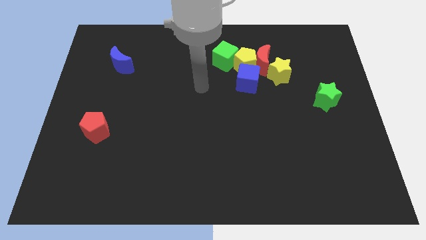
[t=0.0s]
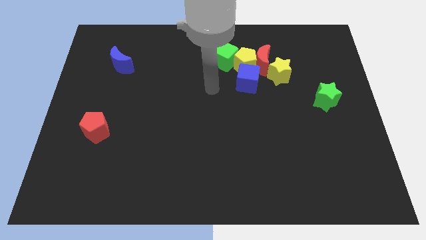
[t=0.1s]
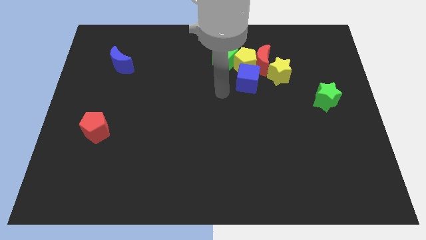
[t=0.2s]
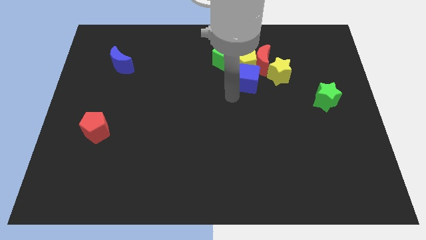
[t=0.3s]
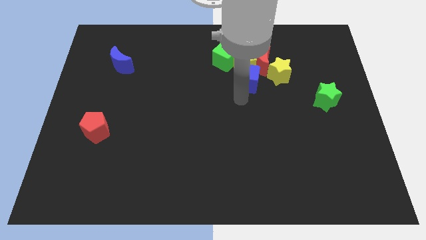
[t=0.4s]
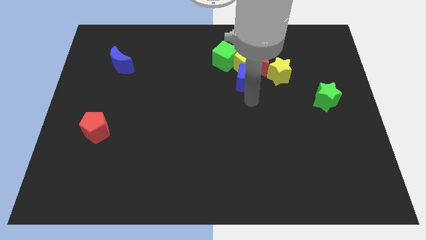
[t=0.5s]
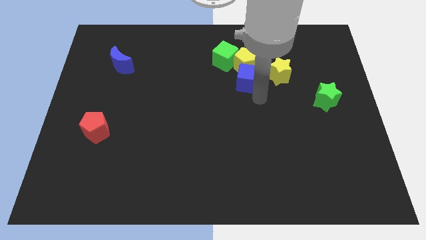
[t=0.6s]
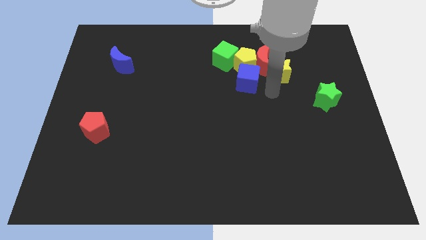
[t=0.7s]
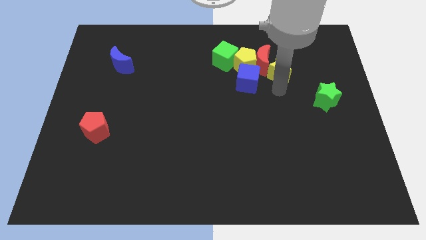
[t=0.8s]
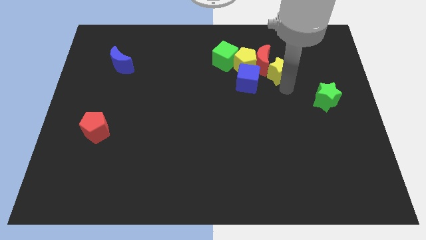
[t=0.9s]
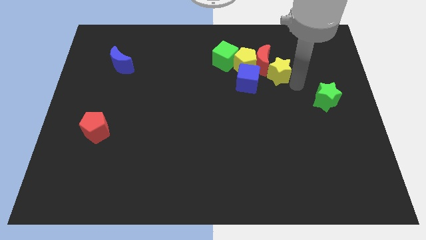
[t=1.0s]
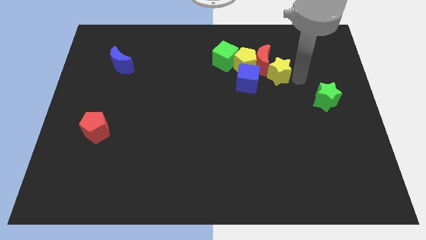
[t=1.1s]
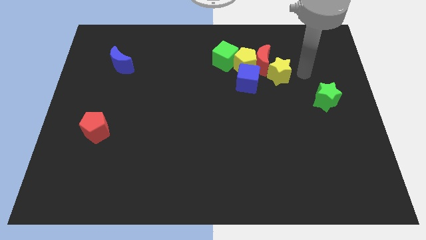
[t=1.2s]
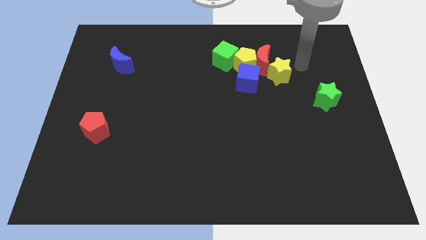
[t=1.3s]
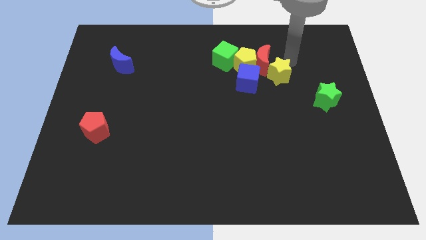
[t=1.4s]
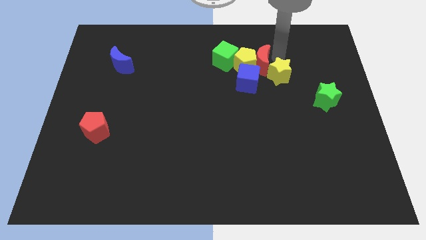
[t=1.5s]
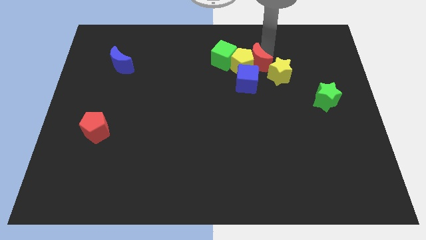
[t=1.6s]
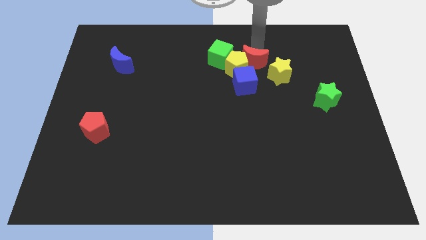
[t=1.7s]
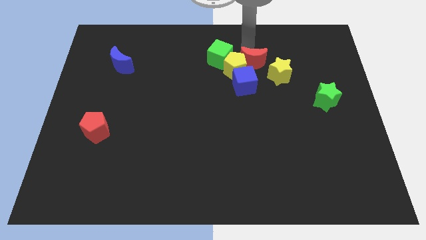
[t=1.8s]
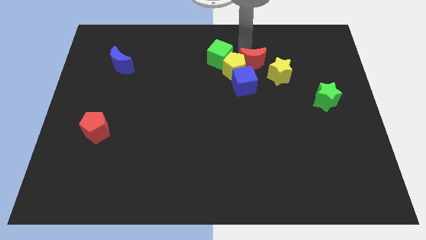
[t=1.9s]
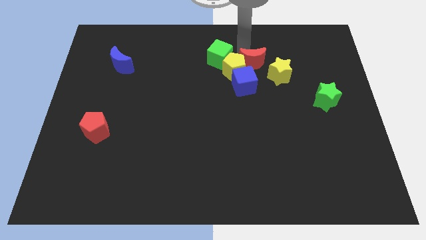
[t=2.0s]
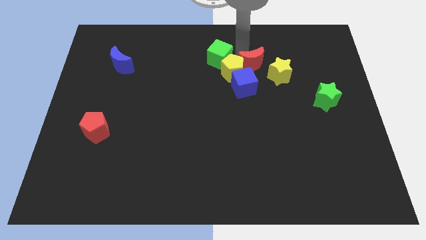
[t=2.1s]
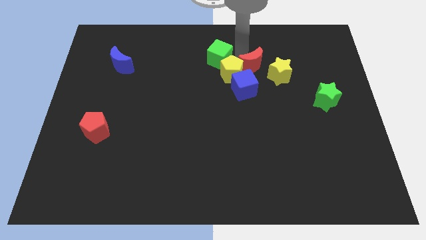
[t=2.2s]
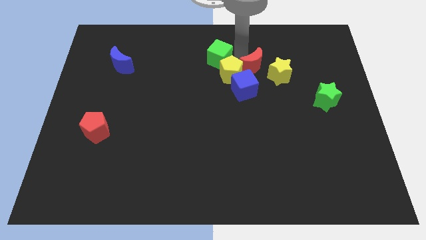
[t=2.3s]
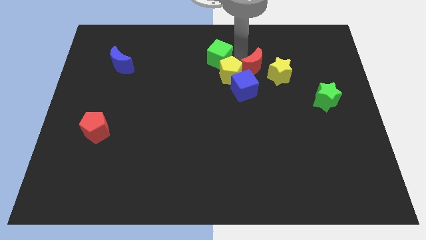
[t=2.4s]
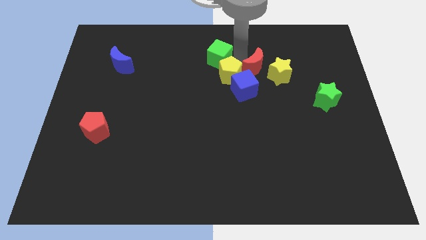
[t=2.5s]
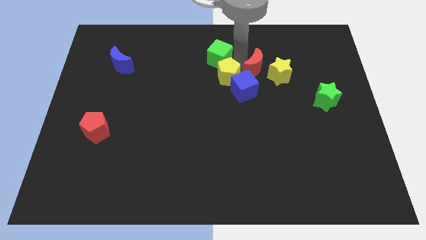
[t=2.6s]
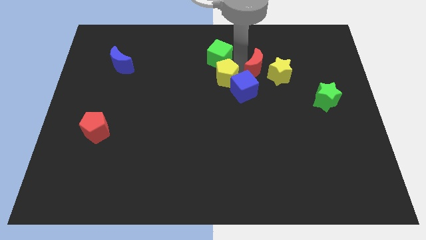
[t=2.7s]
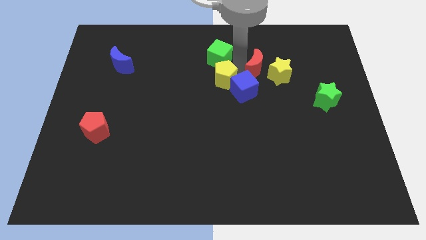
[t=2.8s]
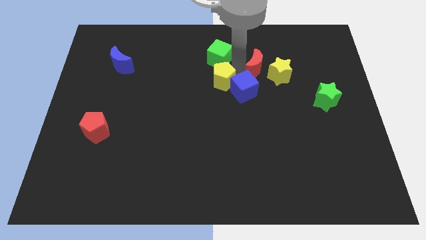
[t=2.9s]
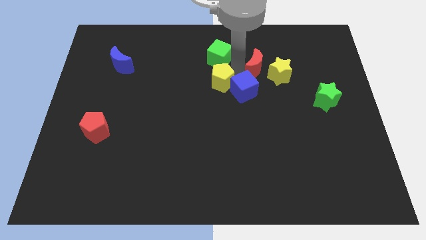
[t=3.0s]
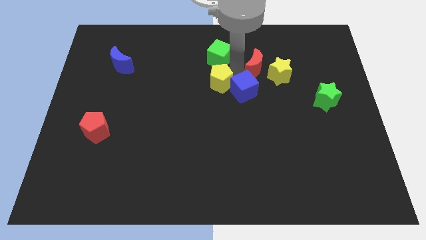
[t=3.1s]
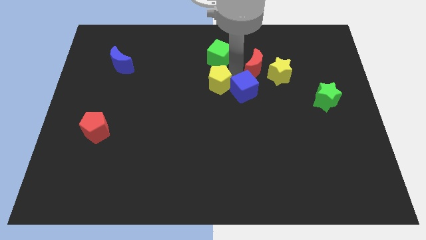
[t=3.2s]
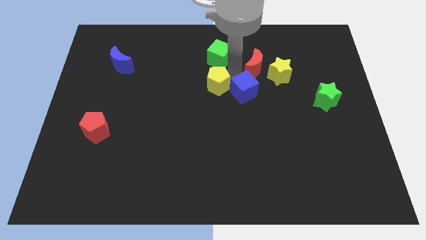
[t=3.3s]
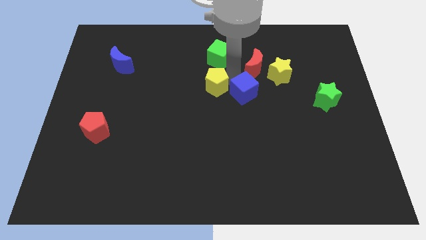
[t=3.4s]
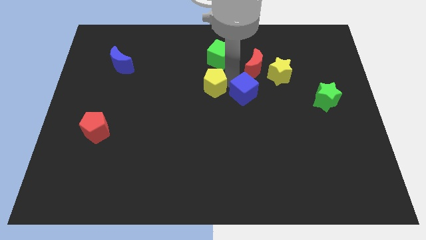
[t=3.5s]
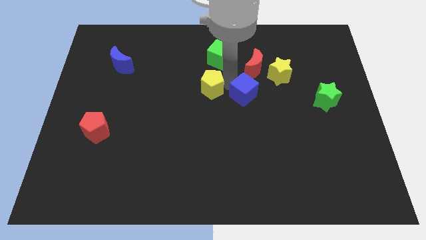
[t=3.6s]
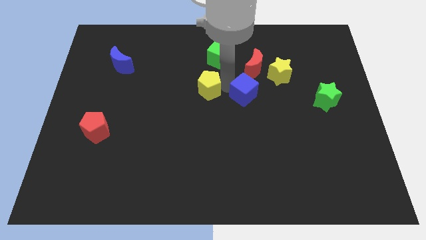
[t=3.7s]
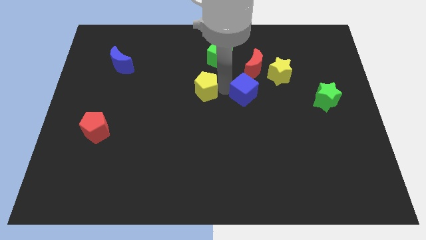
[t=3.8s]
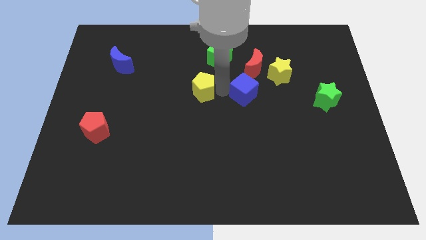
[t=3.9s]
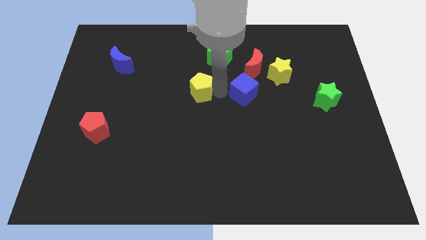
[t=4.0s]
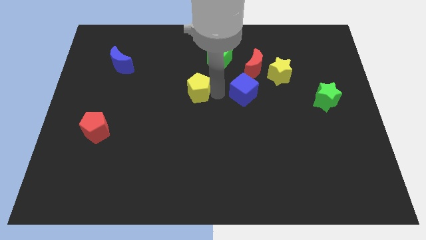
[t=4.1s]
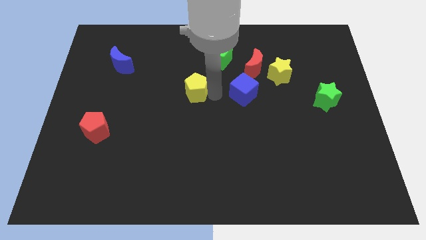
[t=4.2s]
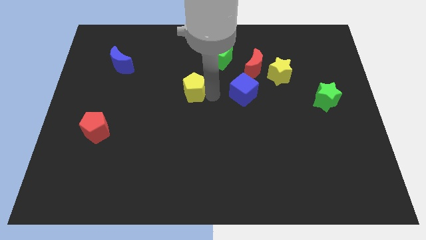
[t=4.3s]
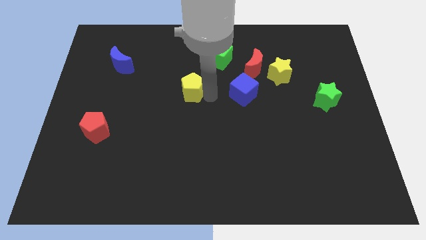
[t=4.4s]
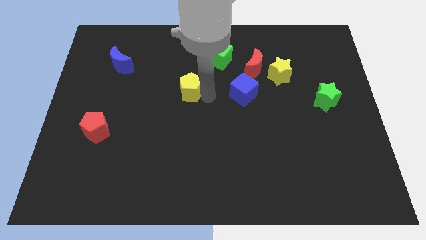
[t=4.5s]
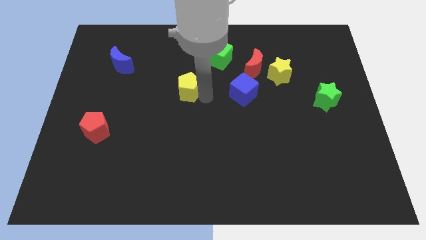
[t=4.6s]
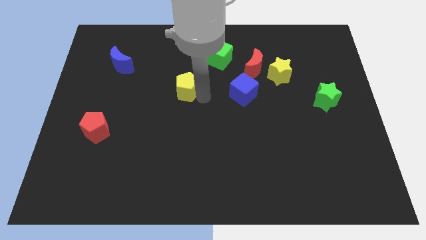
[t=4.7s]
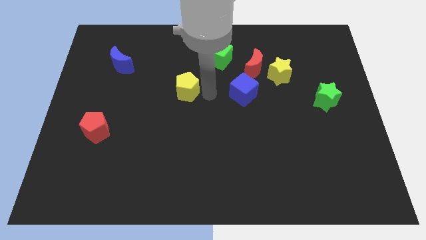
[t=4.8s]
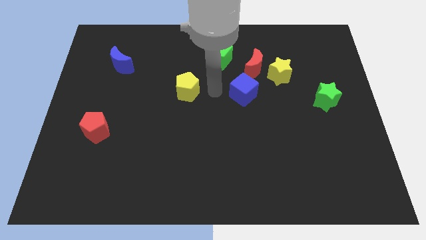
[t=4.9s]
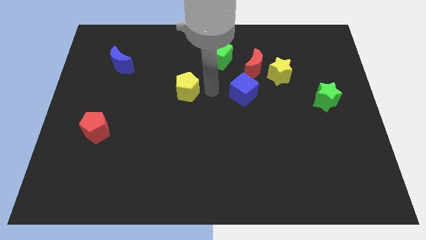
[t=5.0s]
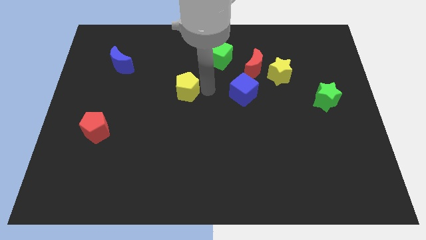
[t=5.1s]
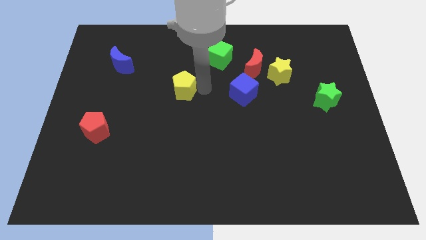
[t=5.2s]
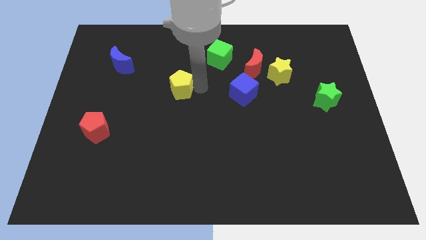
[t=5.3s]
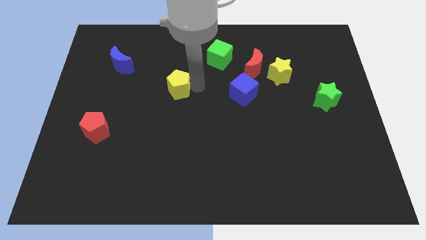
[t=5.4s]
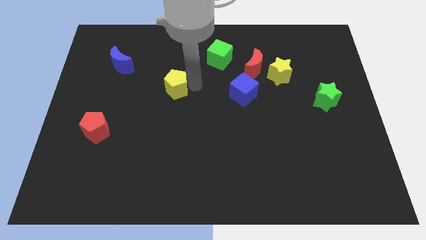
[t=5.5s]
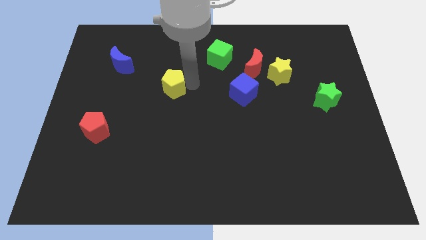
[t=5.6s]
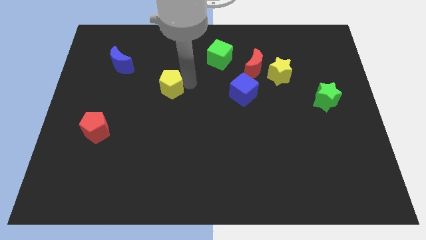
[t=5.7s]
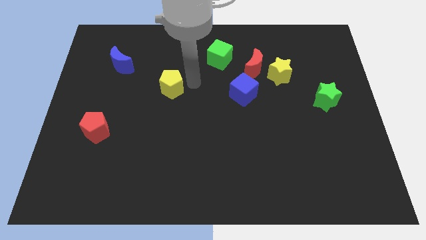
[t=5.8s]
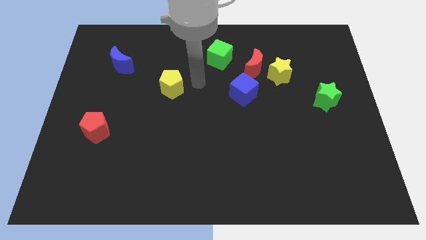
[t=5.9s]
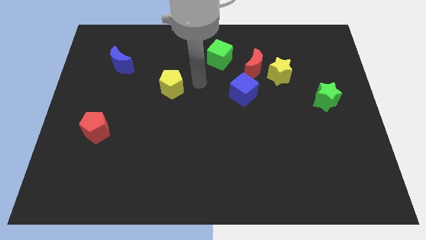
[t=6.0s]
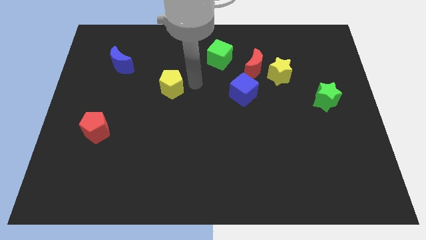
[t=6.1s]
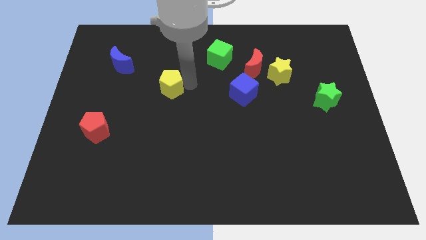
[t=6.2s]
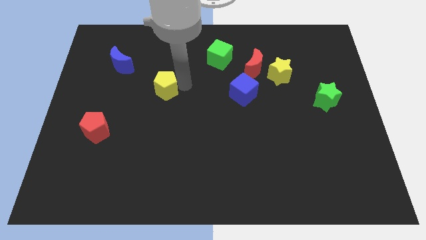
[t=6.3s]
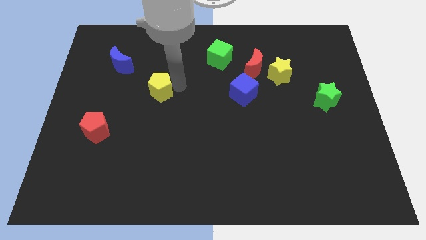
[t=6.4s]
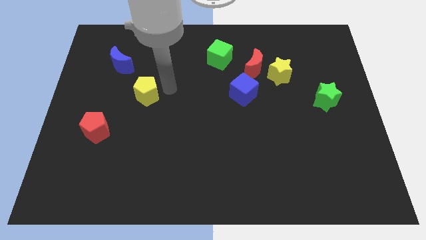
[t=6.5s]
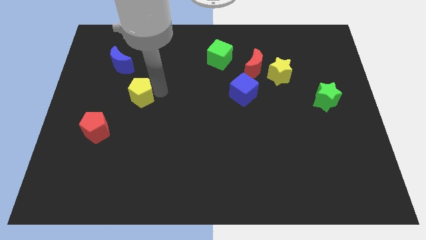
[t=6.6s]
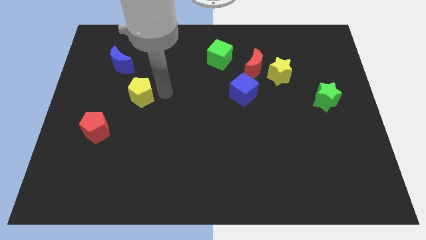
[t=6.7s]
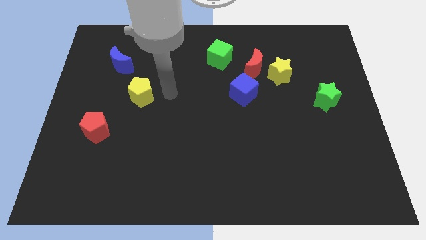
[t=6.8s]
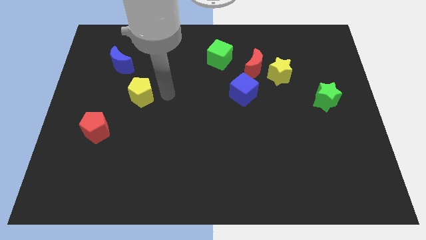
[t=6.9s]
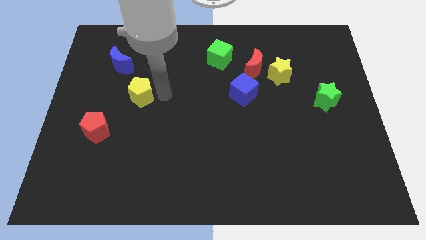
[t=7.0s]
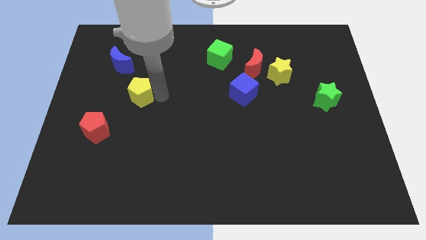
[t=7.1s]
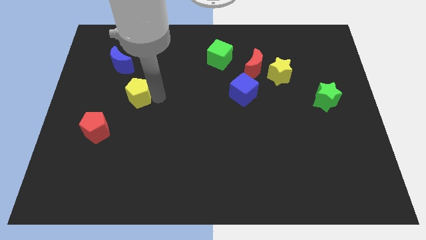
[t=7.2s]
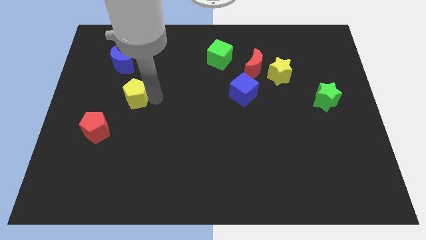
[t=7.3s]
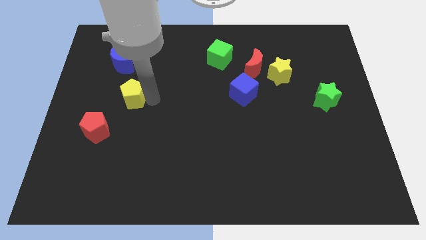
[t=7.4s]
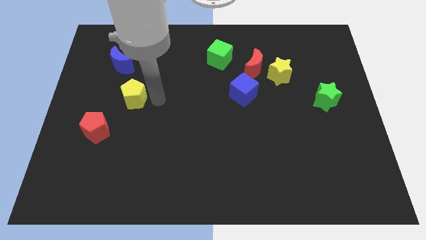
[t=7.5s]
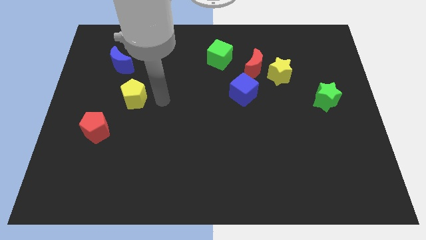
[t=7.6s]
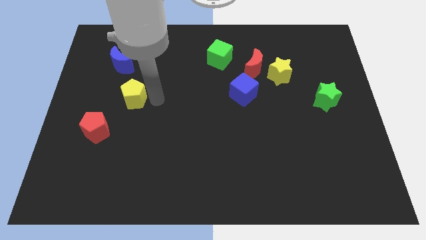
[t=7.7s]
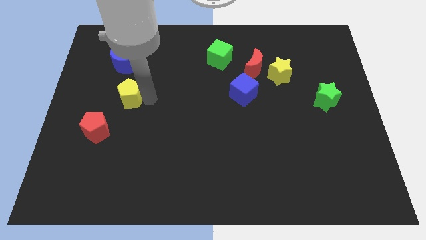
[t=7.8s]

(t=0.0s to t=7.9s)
push the yellow pentagon to the bottom of the blue moon
